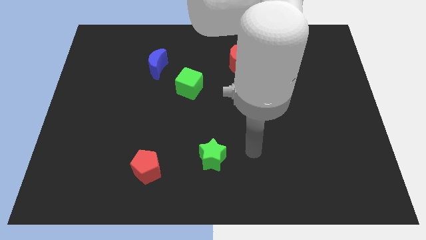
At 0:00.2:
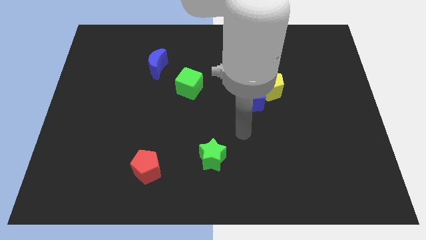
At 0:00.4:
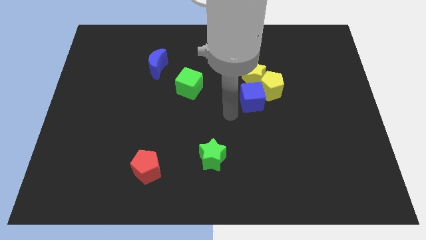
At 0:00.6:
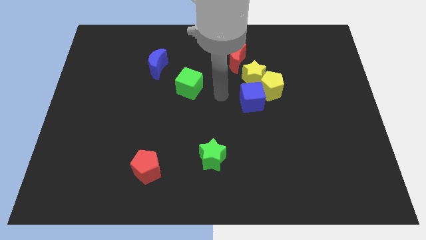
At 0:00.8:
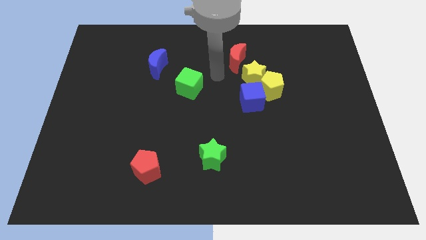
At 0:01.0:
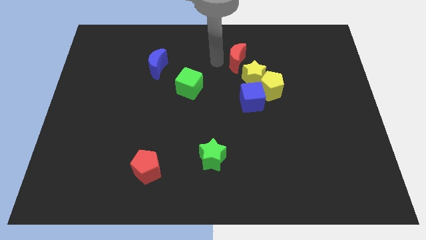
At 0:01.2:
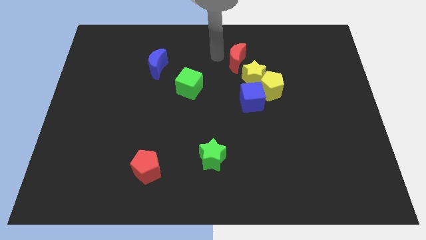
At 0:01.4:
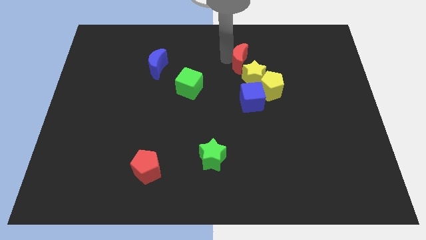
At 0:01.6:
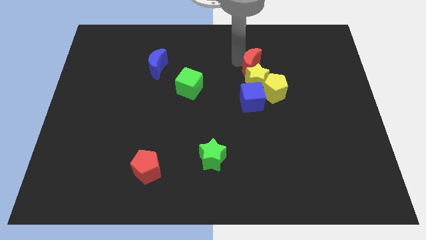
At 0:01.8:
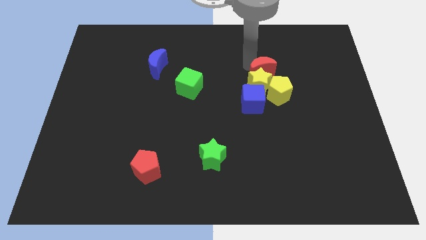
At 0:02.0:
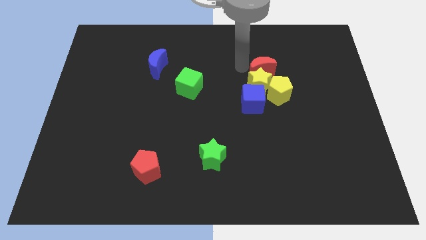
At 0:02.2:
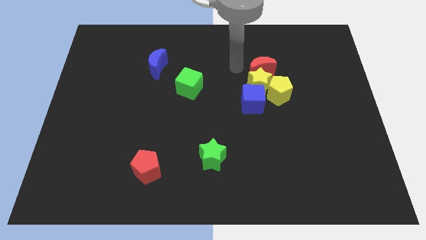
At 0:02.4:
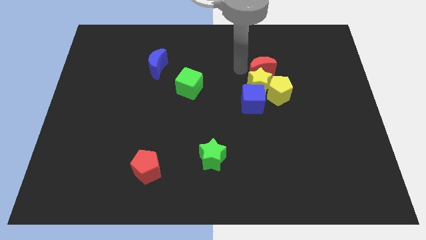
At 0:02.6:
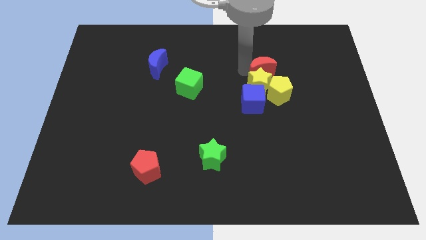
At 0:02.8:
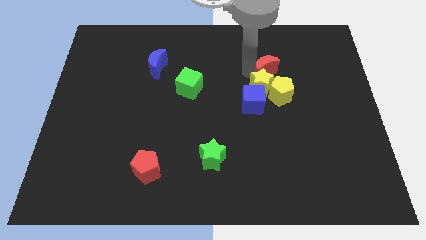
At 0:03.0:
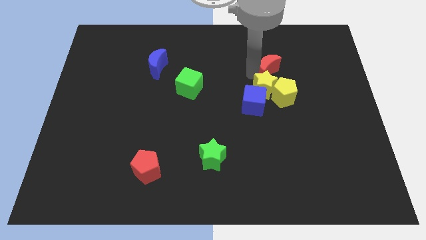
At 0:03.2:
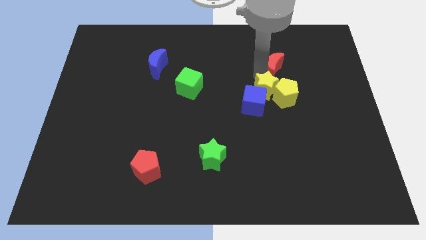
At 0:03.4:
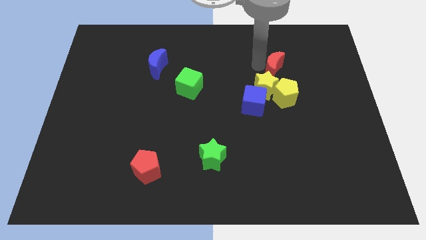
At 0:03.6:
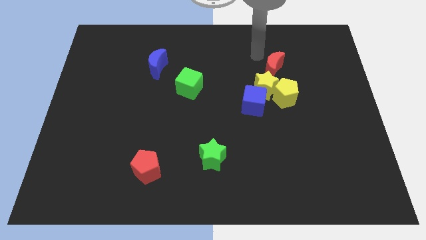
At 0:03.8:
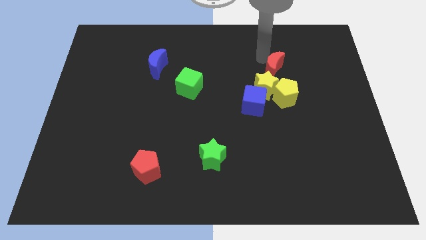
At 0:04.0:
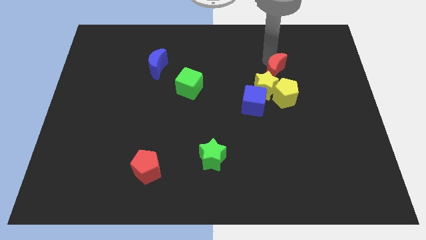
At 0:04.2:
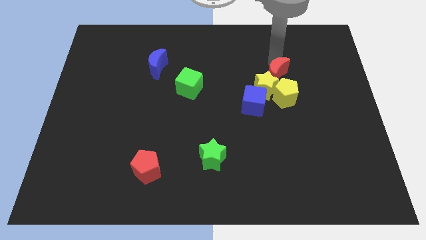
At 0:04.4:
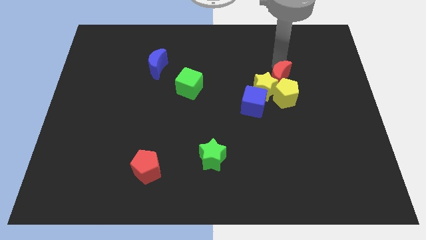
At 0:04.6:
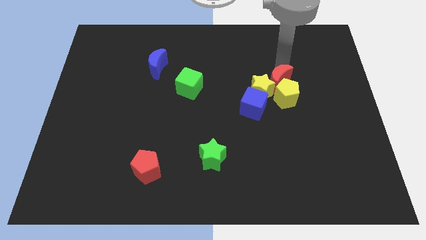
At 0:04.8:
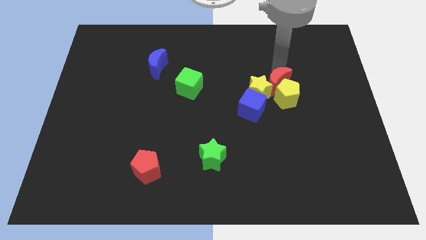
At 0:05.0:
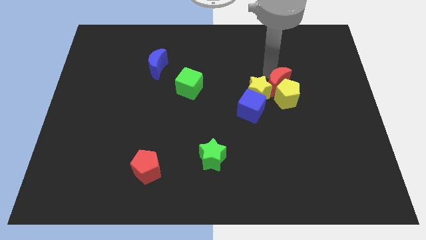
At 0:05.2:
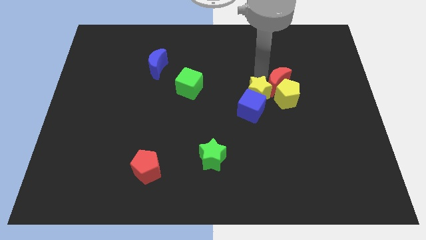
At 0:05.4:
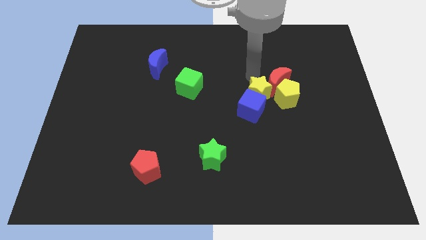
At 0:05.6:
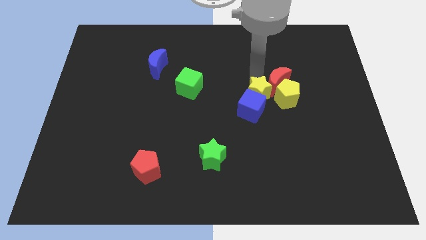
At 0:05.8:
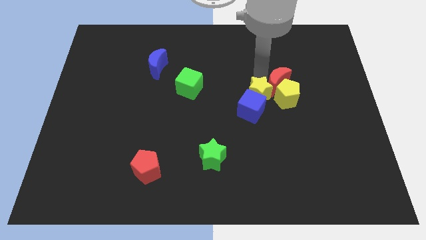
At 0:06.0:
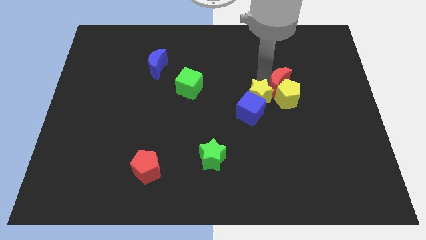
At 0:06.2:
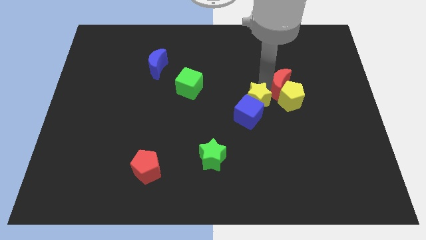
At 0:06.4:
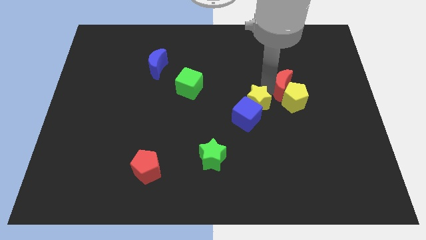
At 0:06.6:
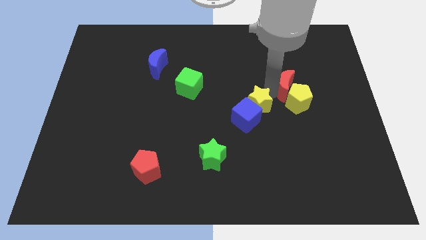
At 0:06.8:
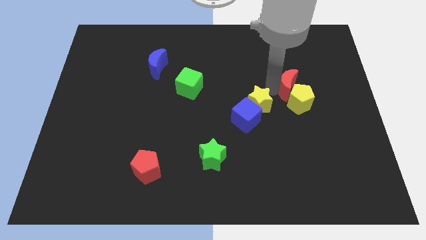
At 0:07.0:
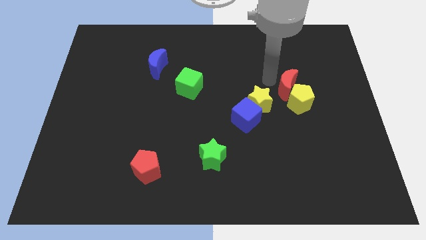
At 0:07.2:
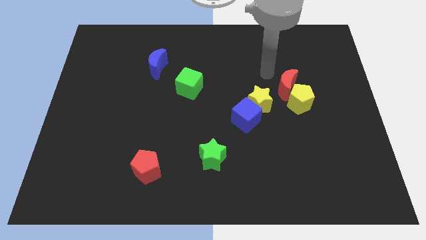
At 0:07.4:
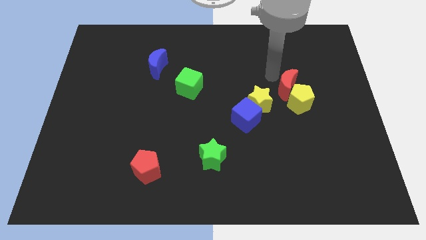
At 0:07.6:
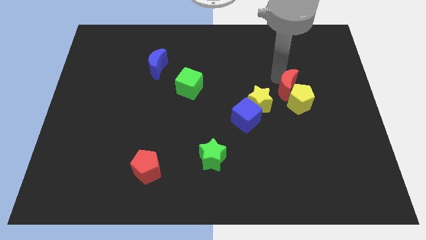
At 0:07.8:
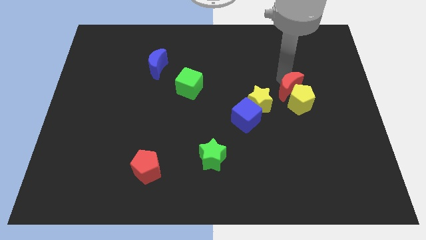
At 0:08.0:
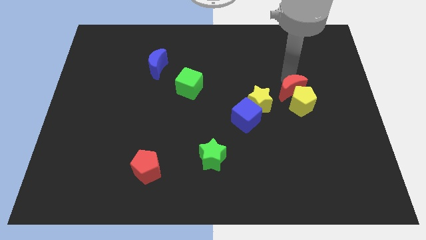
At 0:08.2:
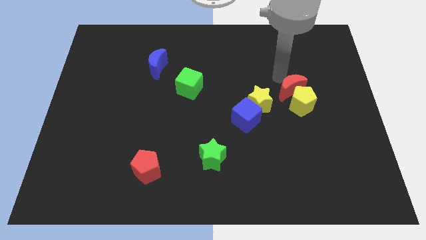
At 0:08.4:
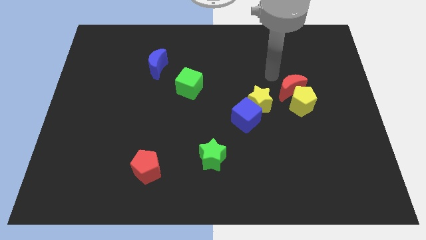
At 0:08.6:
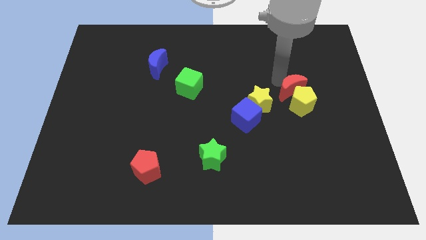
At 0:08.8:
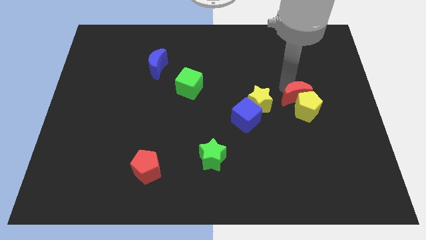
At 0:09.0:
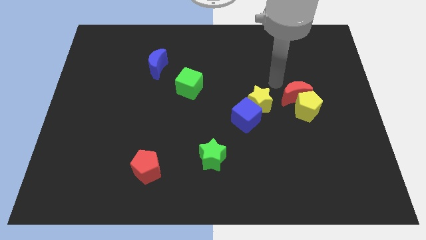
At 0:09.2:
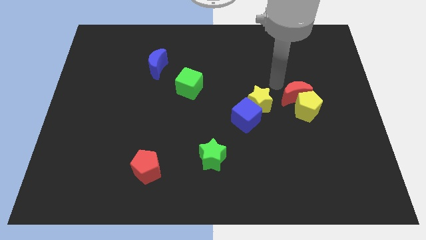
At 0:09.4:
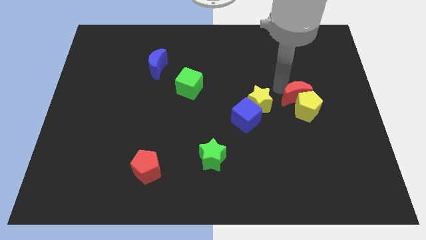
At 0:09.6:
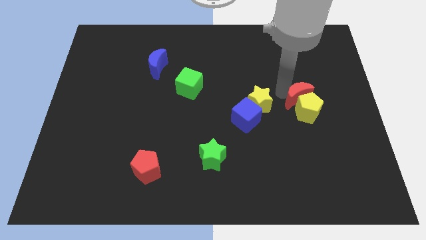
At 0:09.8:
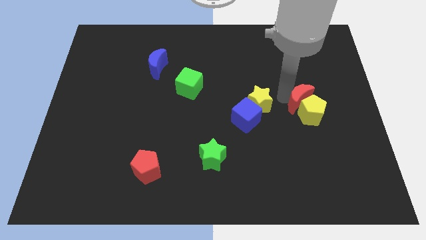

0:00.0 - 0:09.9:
move the red moon downwards and then to the right

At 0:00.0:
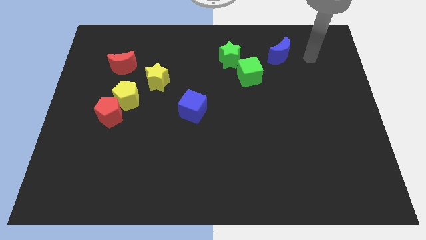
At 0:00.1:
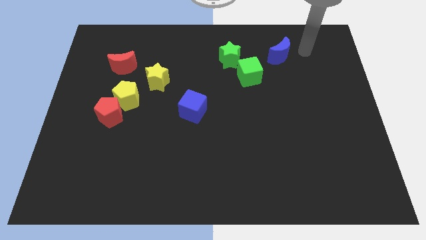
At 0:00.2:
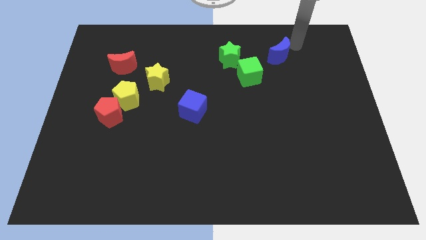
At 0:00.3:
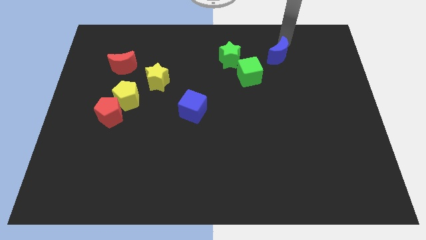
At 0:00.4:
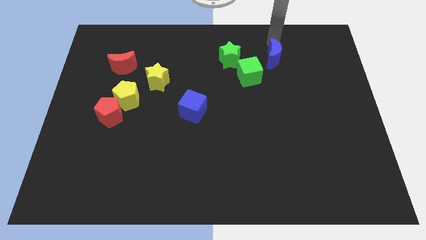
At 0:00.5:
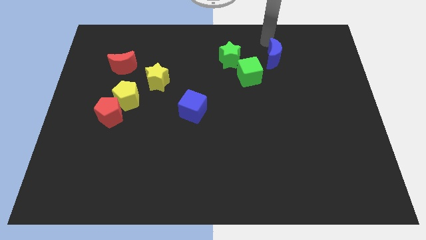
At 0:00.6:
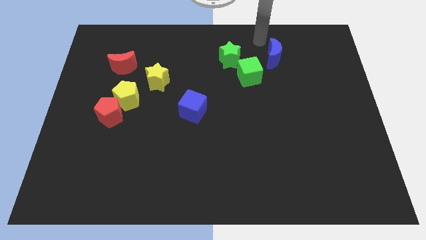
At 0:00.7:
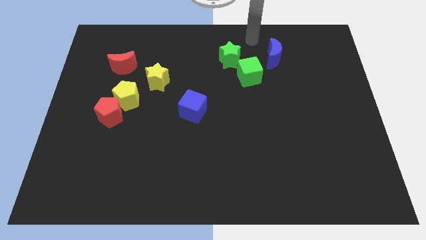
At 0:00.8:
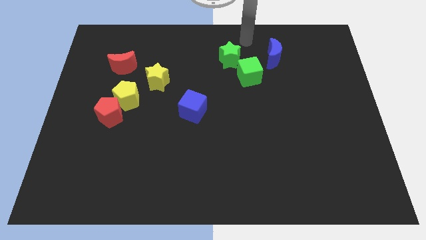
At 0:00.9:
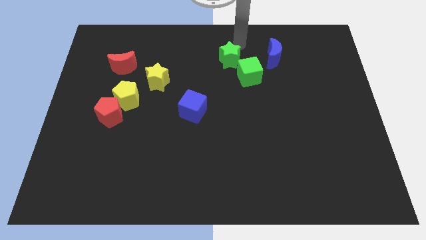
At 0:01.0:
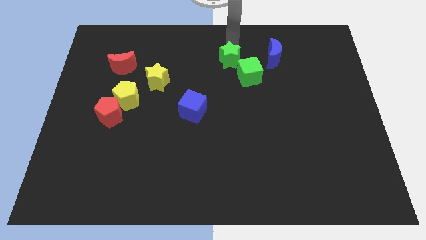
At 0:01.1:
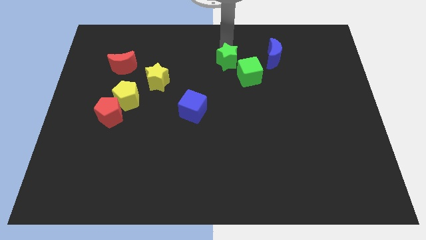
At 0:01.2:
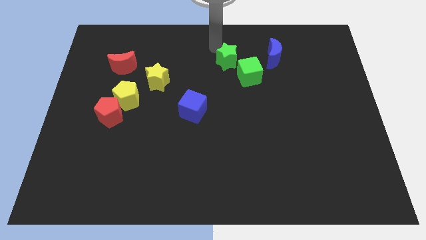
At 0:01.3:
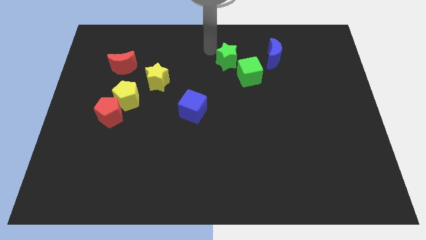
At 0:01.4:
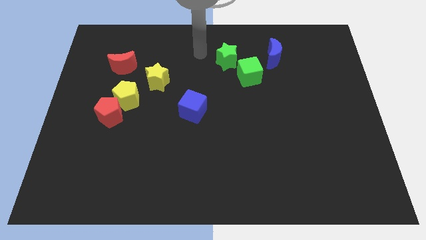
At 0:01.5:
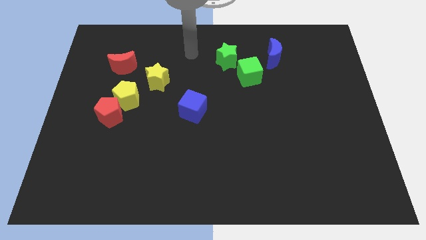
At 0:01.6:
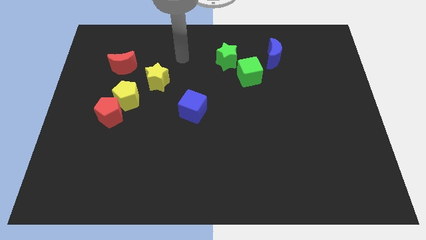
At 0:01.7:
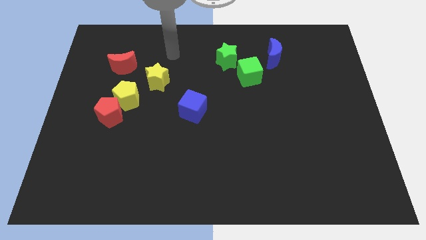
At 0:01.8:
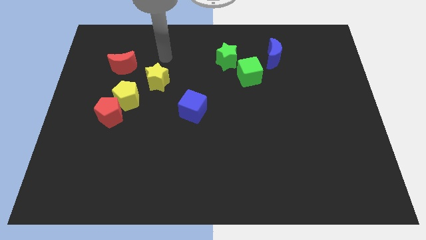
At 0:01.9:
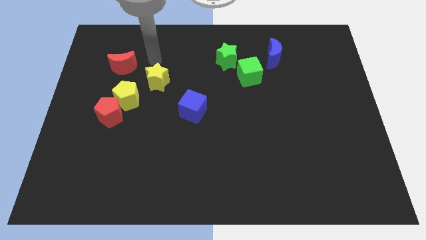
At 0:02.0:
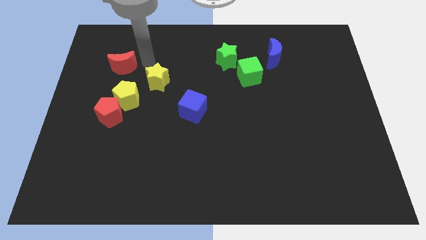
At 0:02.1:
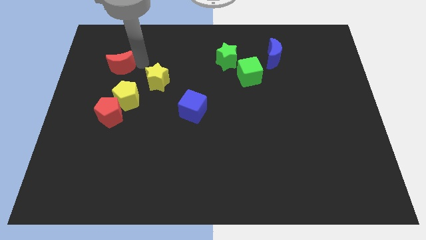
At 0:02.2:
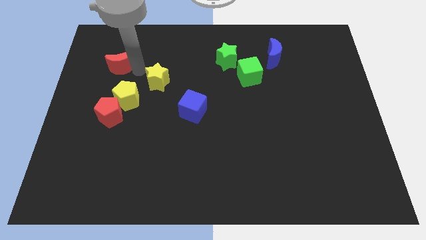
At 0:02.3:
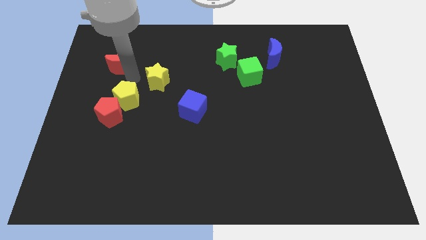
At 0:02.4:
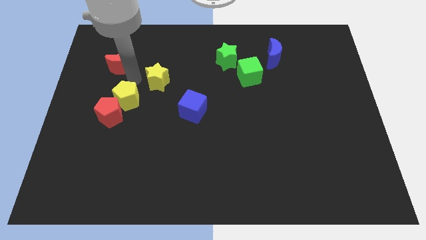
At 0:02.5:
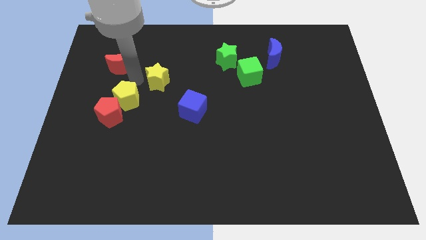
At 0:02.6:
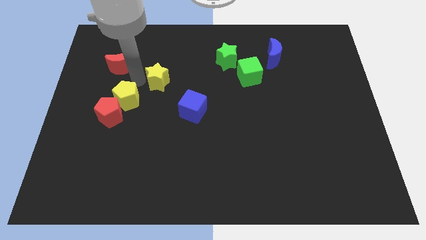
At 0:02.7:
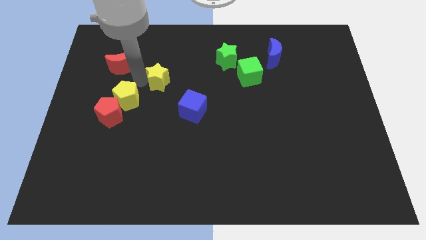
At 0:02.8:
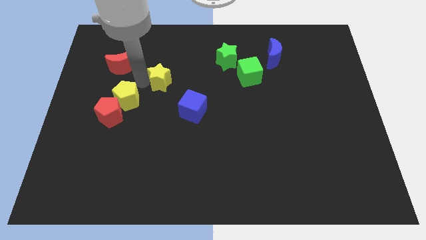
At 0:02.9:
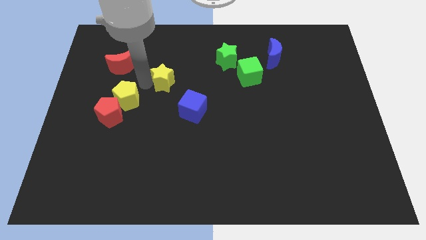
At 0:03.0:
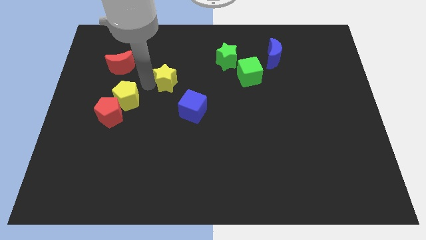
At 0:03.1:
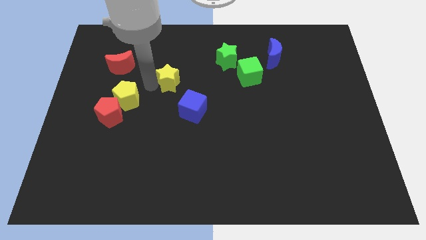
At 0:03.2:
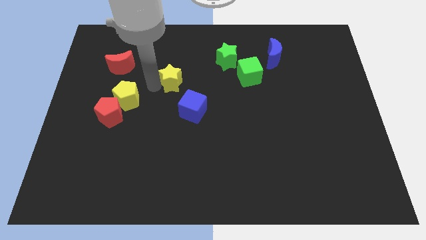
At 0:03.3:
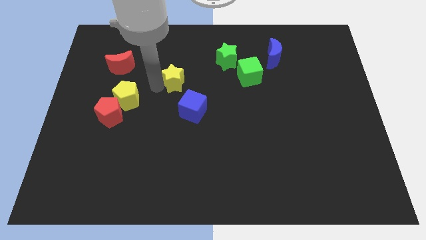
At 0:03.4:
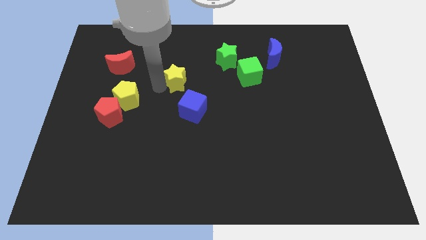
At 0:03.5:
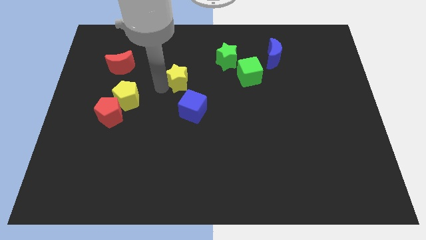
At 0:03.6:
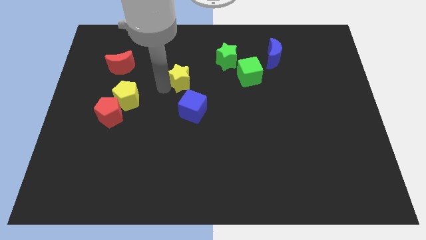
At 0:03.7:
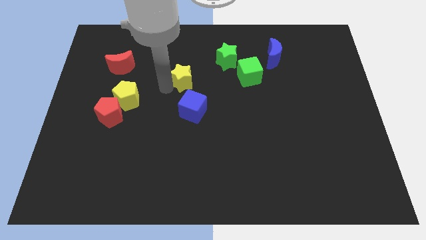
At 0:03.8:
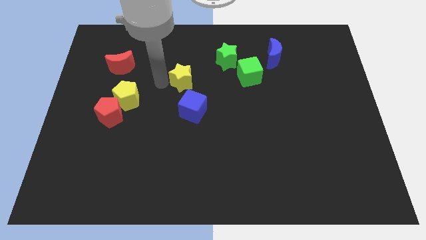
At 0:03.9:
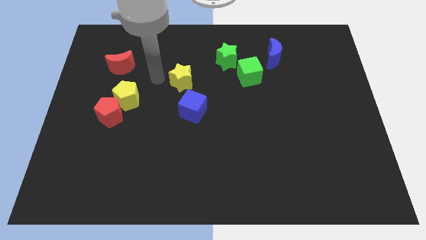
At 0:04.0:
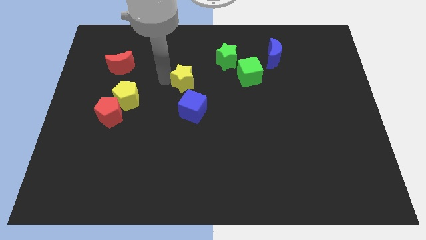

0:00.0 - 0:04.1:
move the yellow star to the right somewhat
